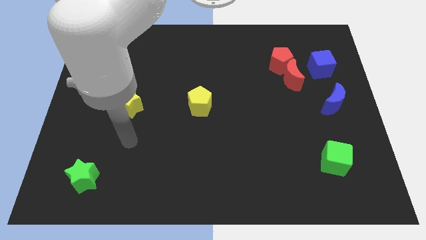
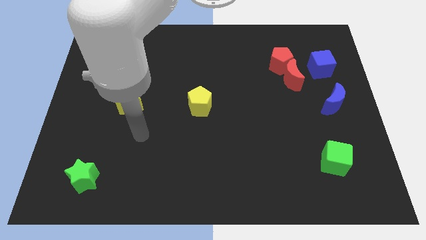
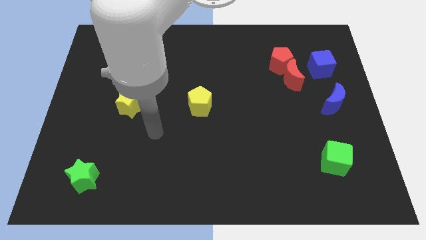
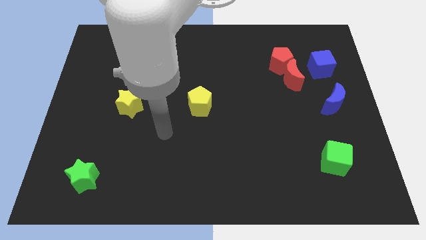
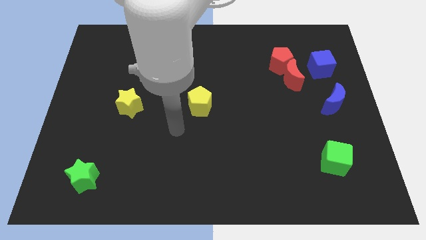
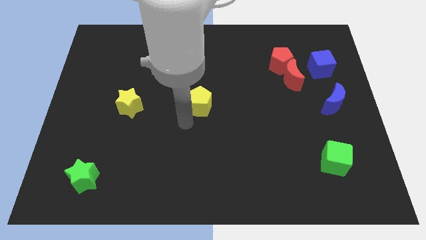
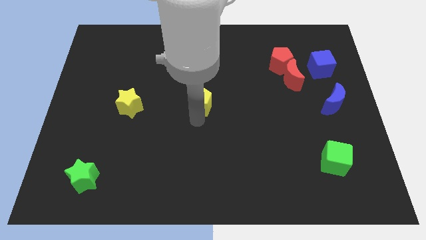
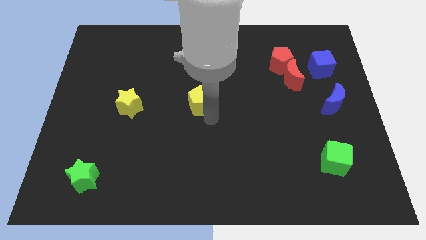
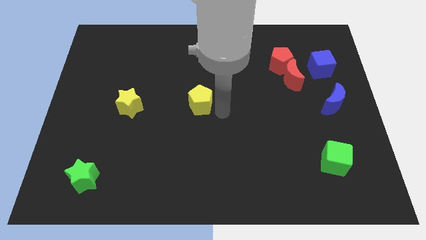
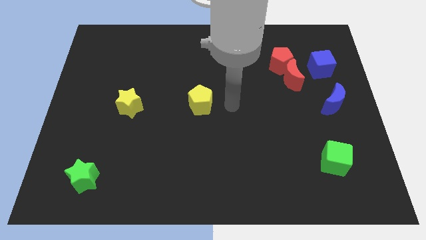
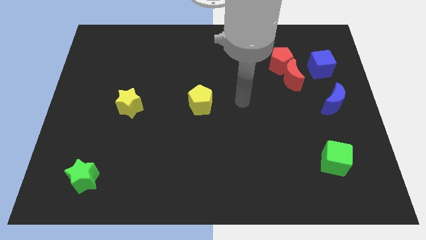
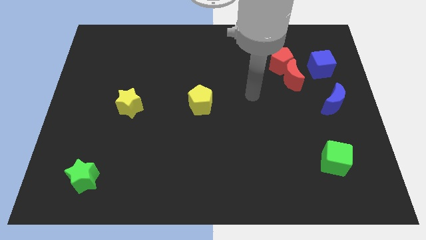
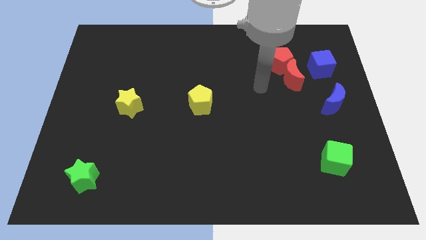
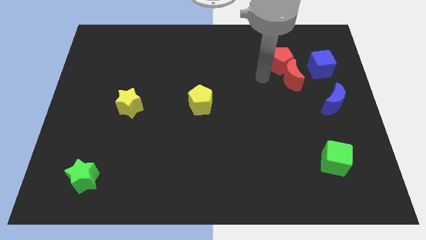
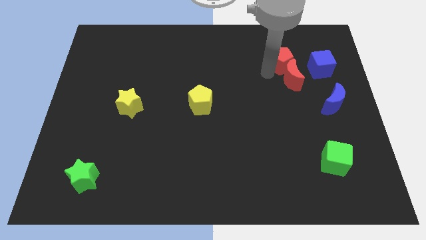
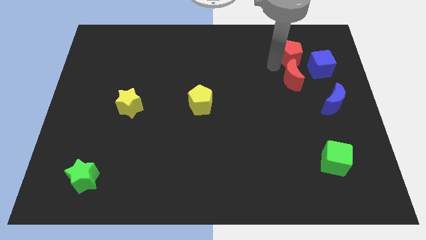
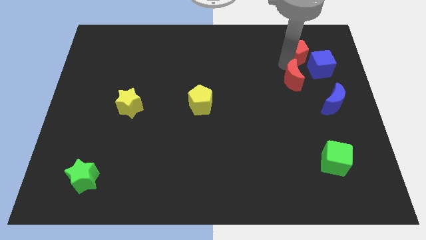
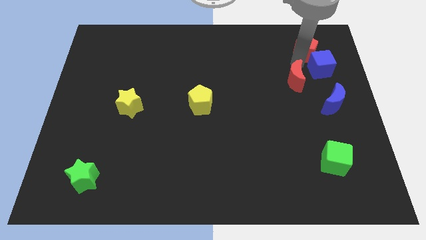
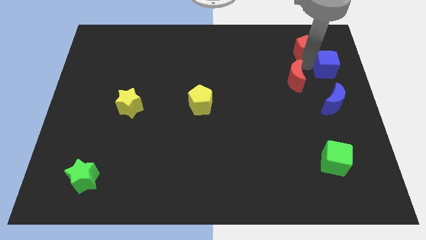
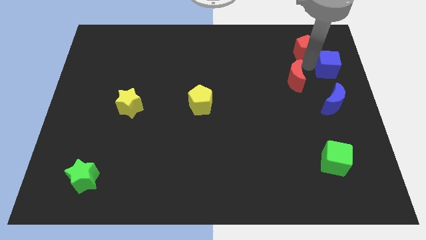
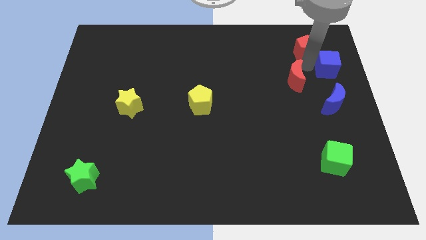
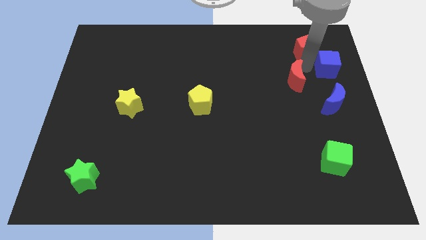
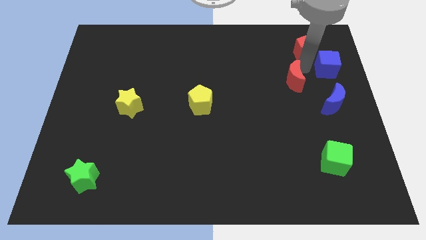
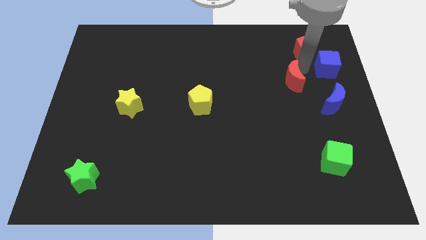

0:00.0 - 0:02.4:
separate the red moon from the red pentagon and blue cube

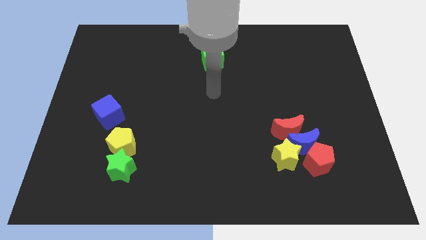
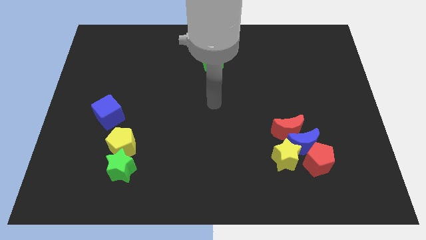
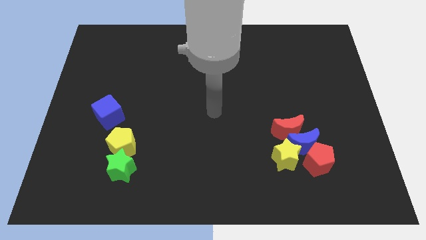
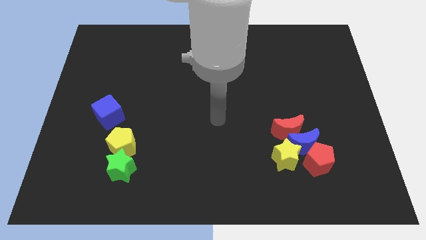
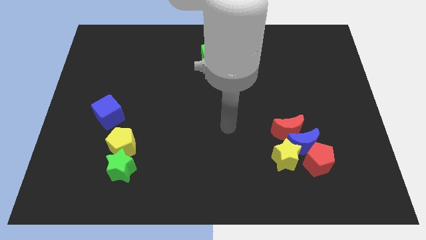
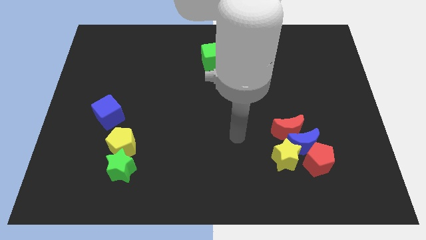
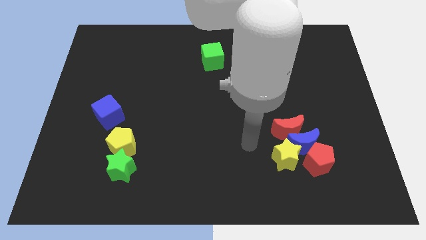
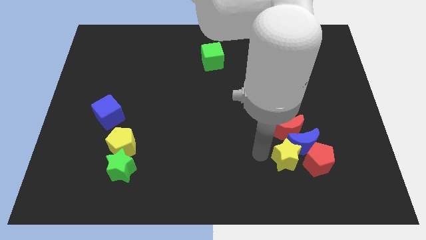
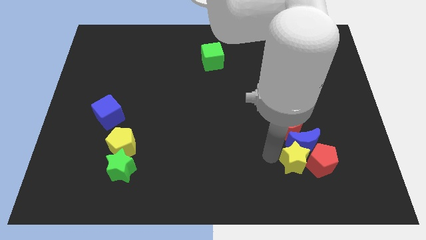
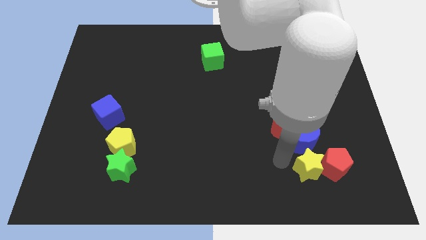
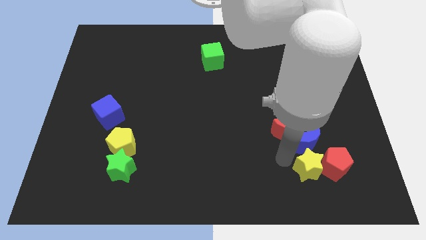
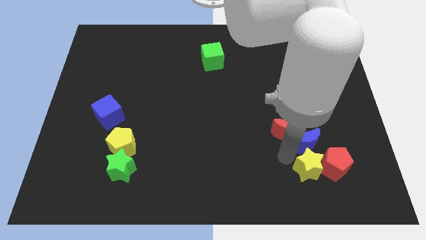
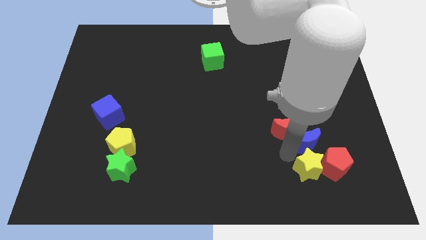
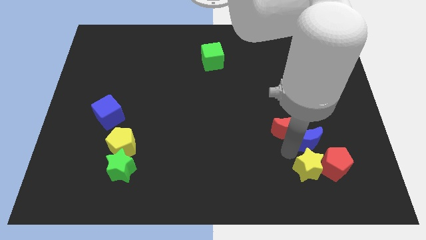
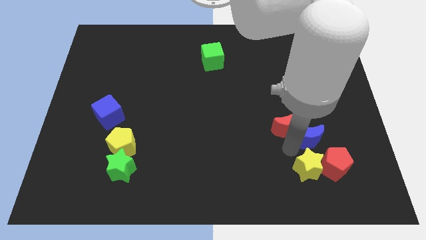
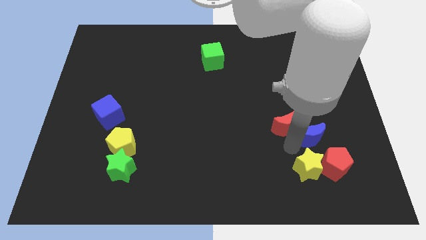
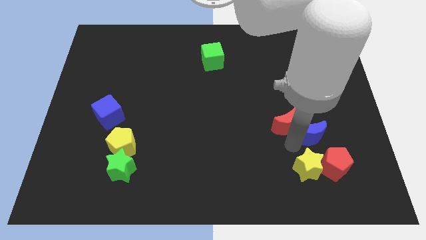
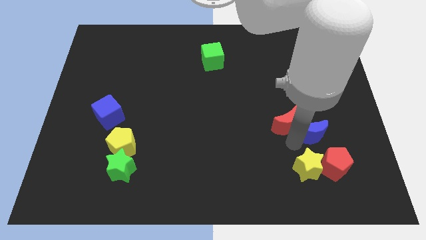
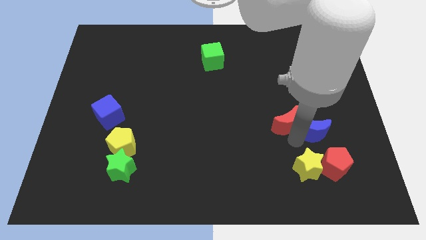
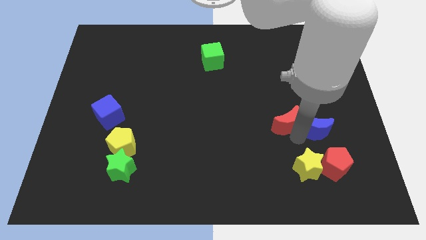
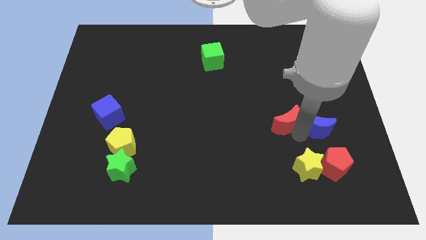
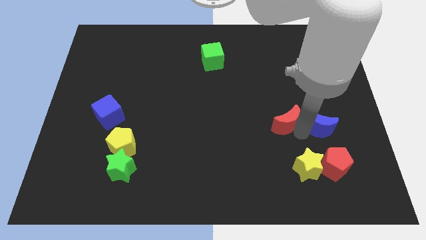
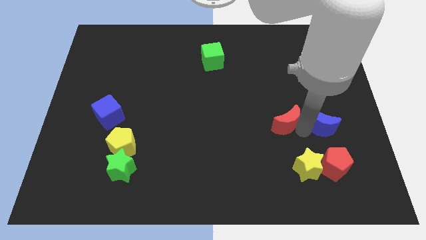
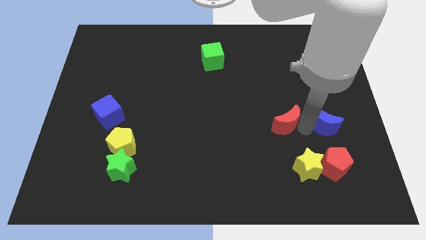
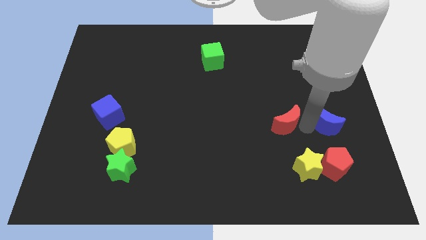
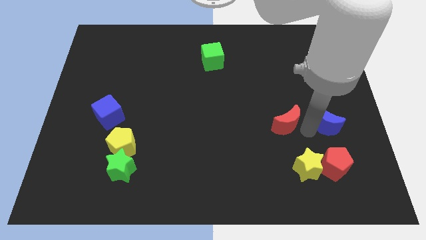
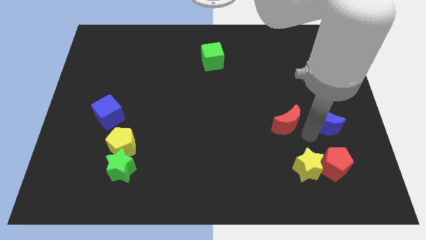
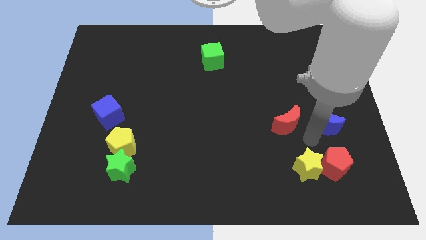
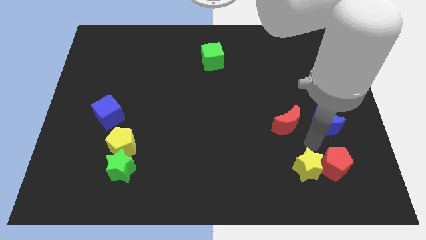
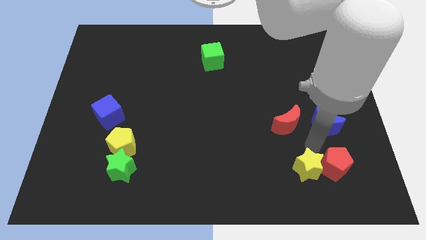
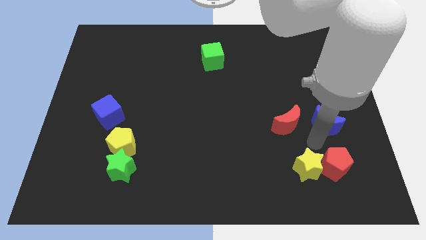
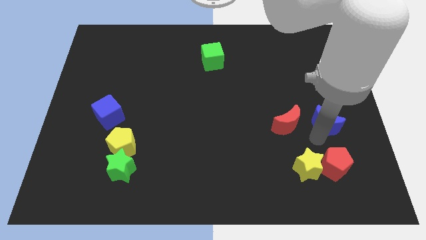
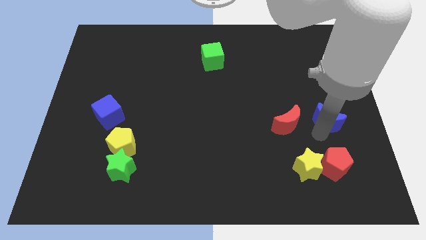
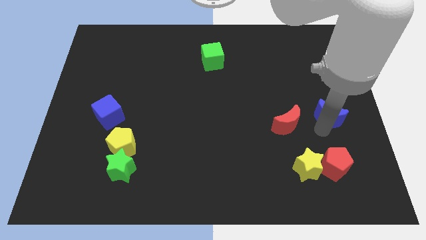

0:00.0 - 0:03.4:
separate the blue moon from the red moon, red pentagon, and yellow star

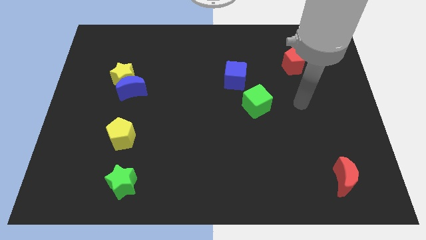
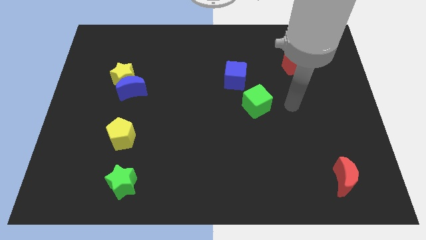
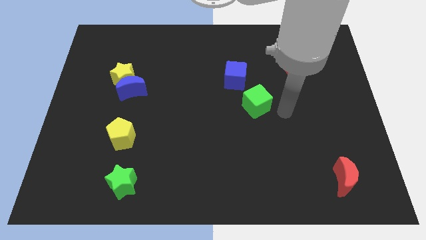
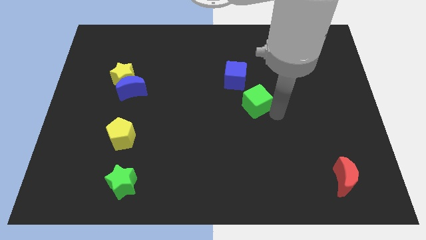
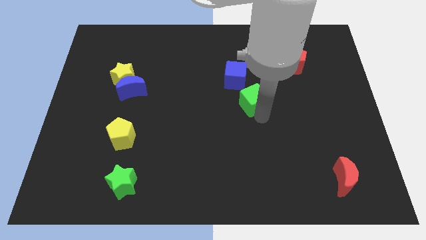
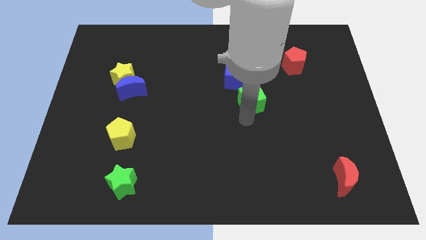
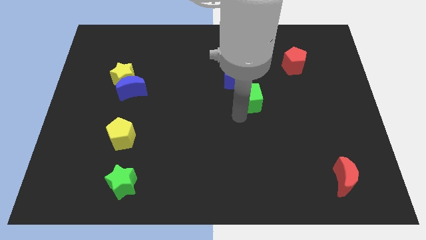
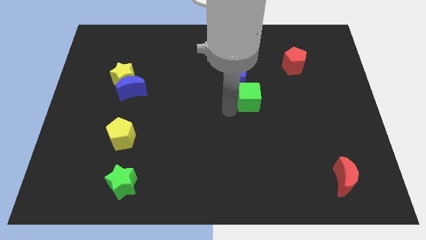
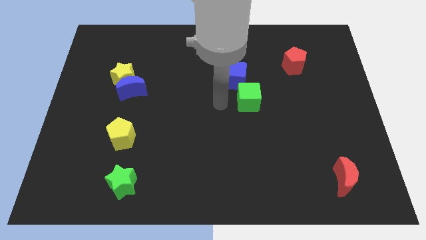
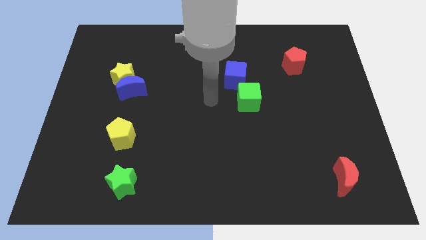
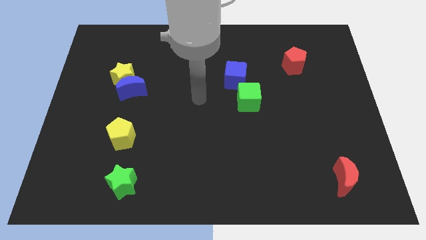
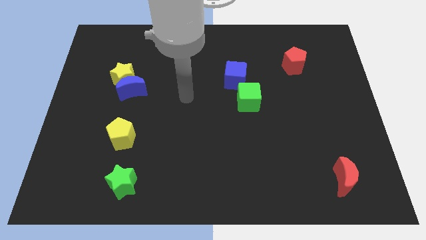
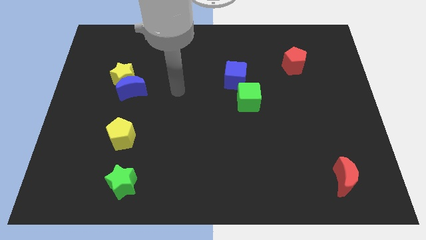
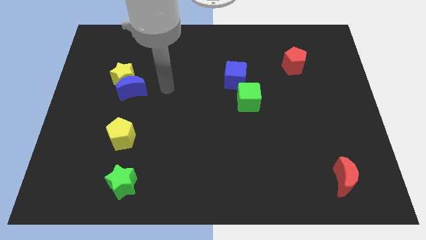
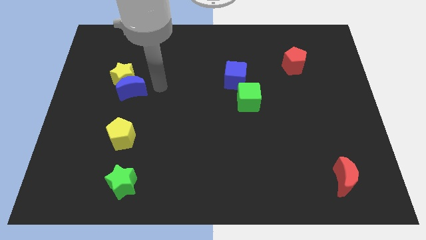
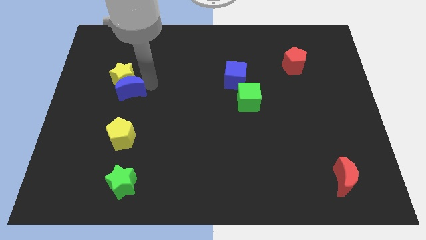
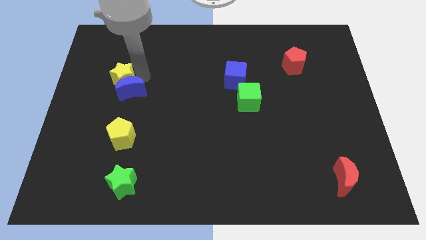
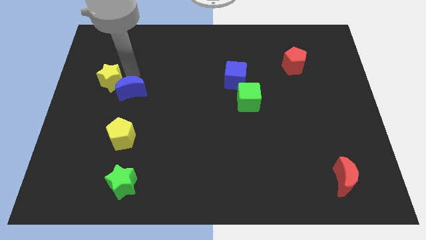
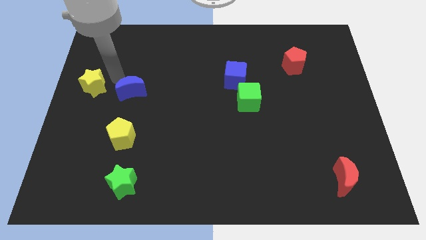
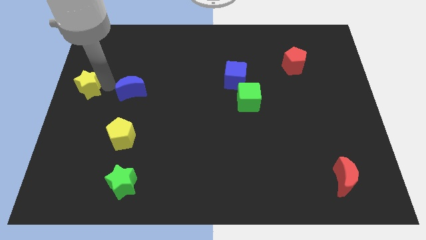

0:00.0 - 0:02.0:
separate the blue moon from the yellow star

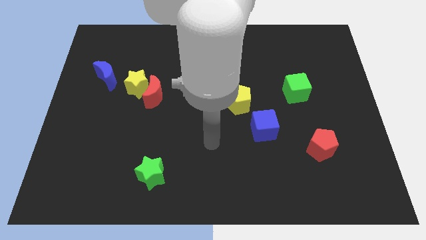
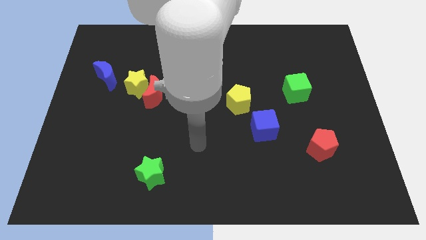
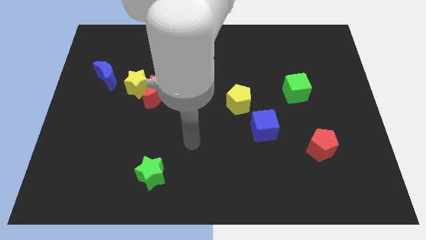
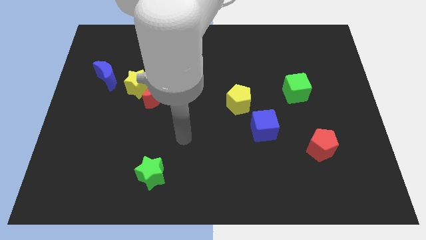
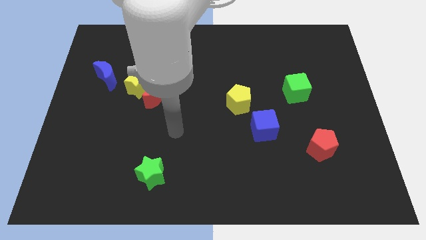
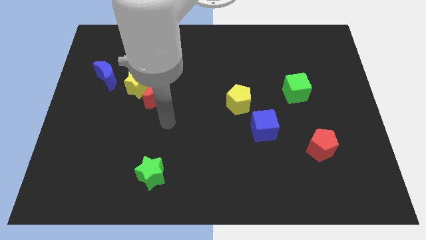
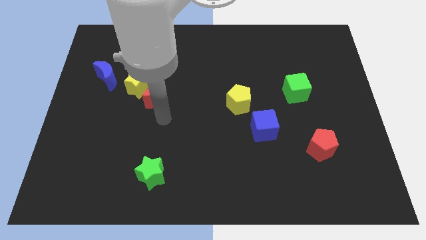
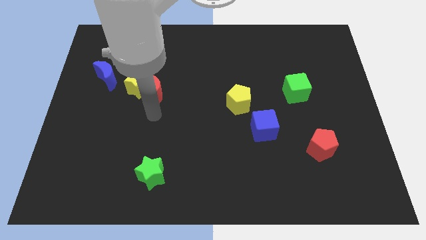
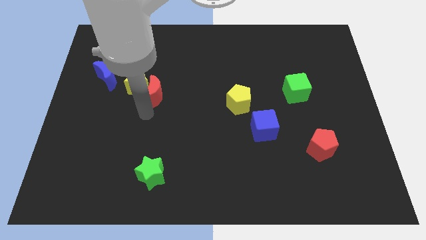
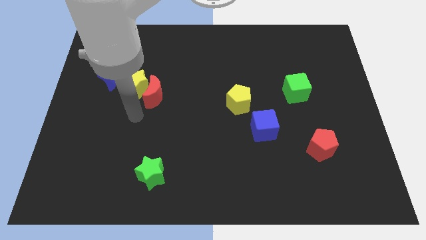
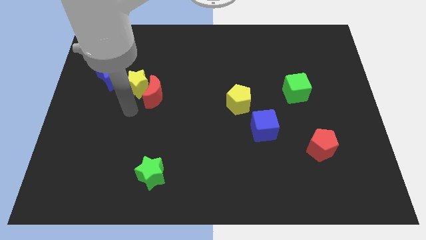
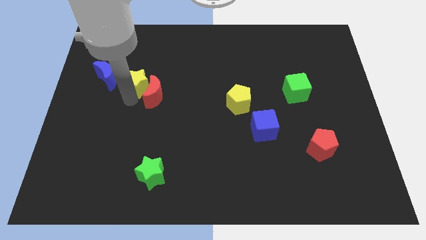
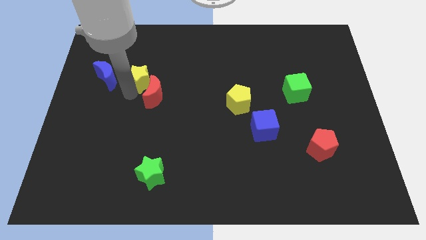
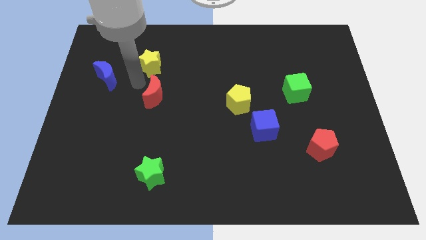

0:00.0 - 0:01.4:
separate the red moon from the yellow star

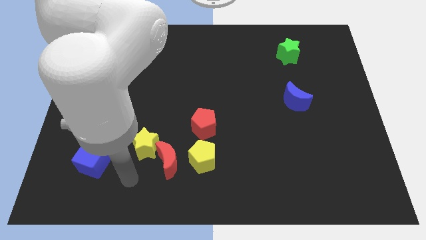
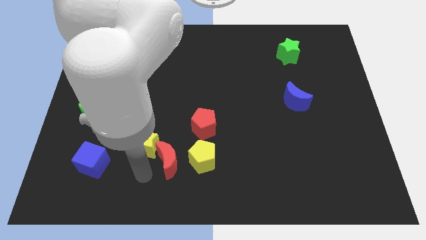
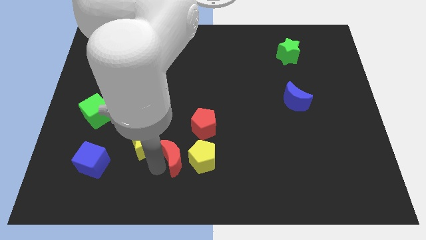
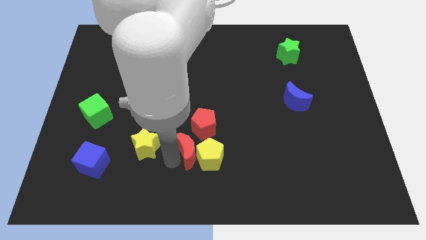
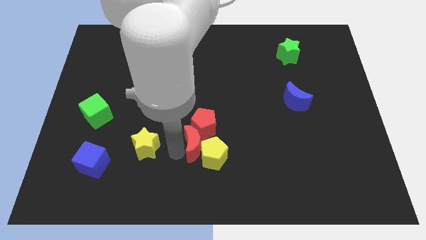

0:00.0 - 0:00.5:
separate the yellow star from the red moon
